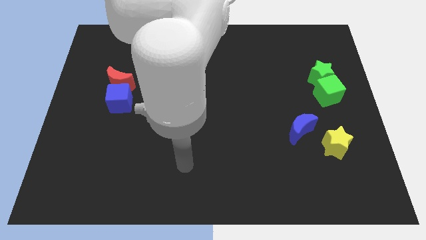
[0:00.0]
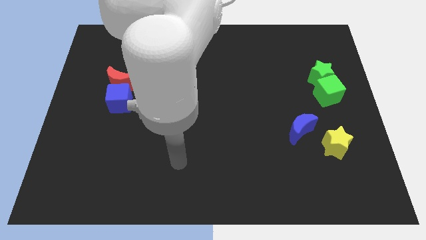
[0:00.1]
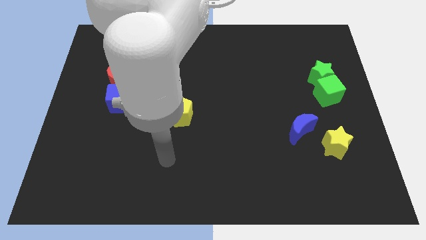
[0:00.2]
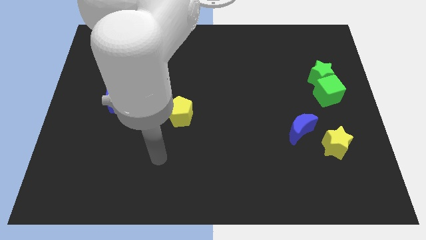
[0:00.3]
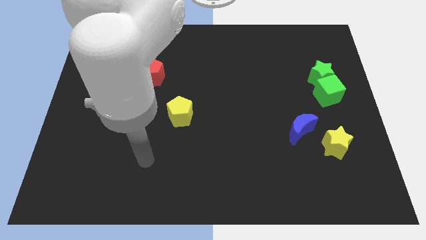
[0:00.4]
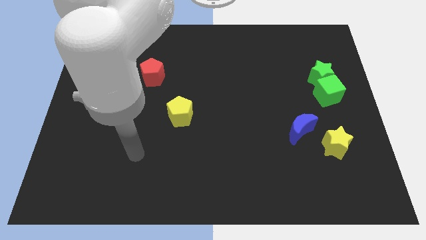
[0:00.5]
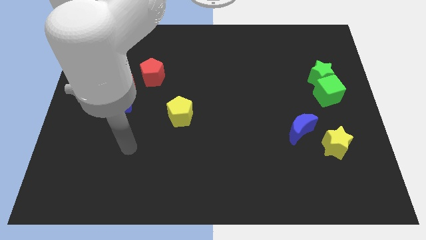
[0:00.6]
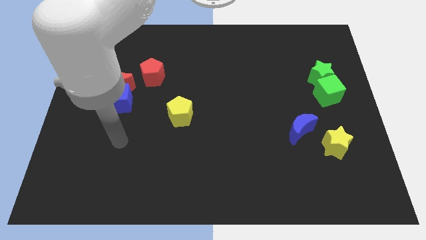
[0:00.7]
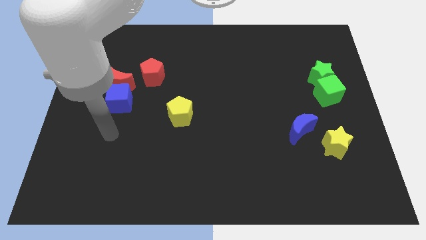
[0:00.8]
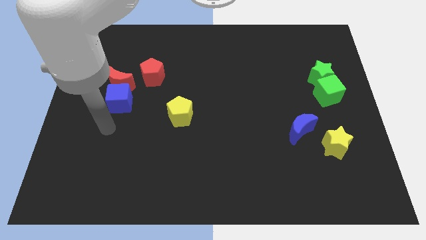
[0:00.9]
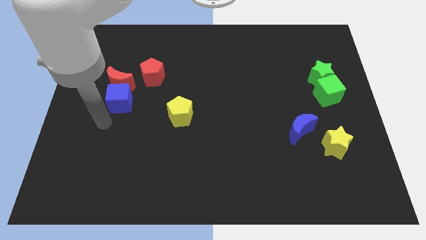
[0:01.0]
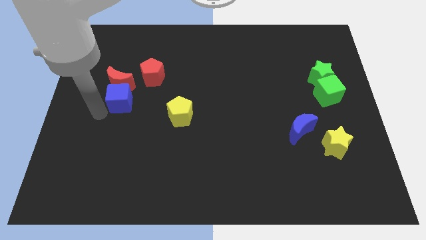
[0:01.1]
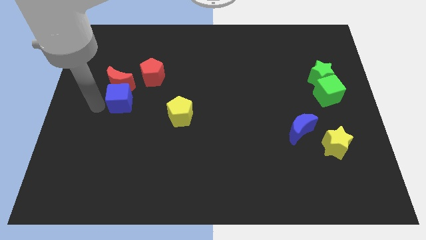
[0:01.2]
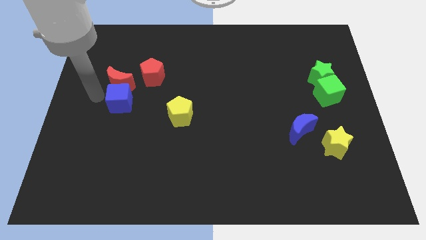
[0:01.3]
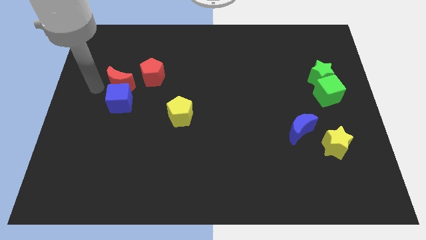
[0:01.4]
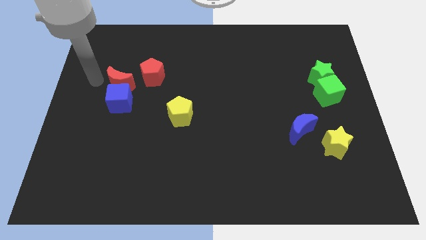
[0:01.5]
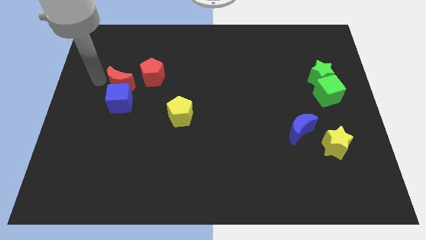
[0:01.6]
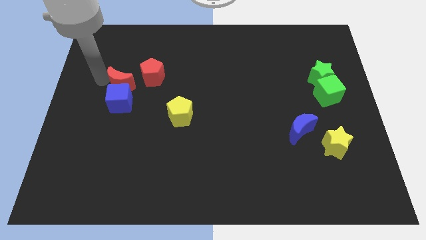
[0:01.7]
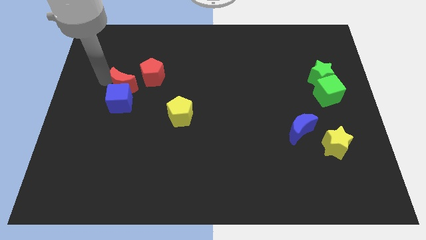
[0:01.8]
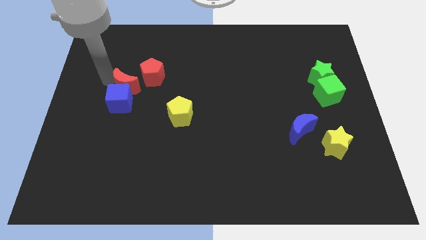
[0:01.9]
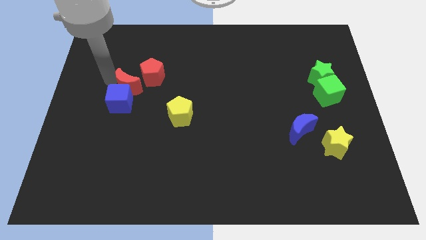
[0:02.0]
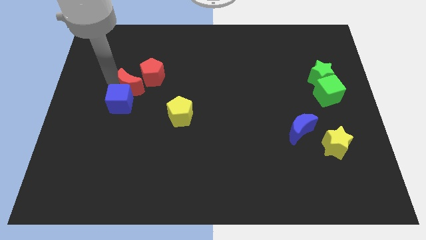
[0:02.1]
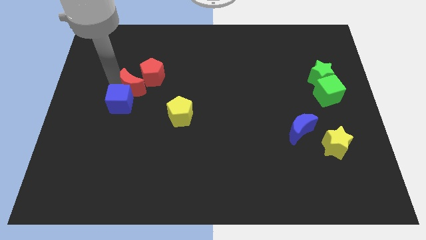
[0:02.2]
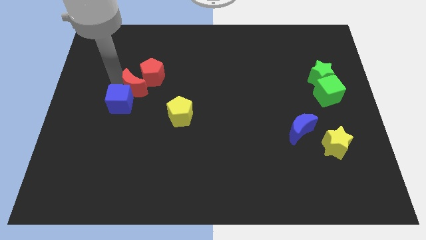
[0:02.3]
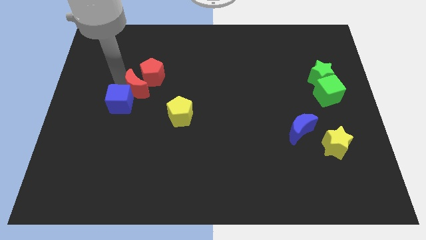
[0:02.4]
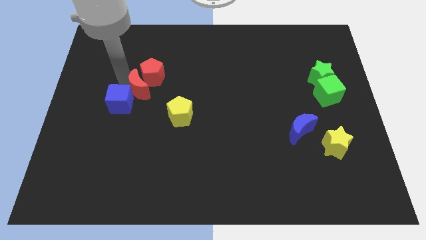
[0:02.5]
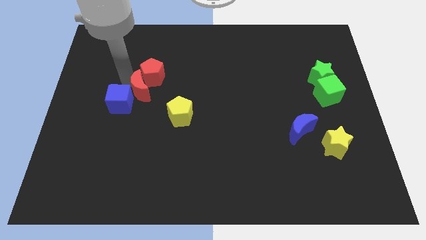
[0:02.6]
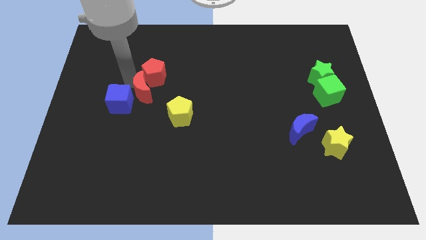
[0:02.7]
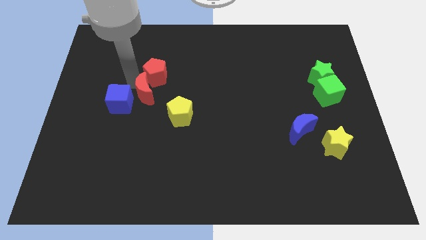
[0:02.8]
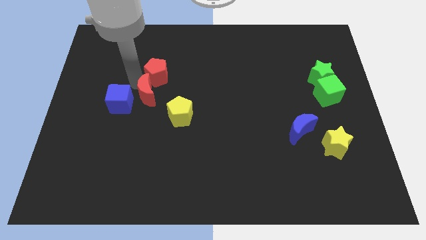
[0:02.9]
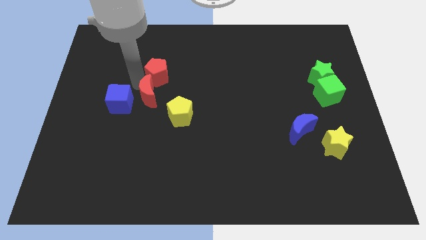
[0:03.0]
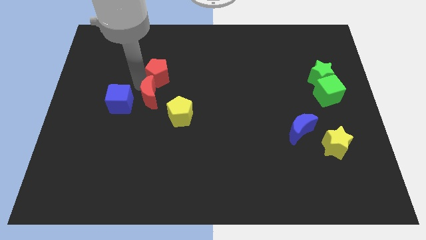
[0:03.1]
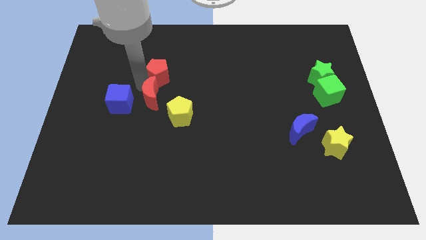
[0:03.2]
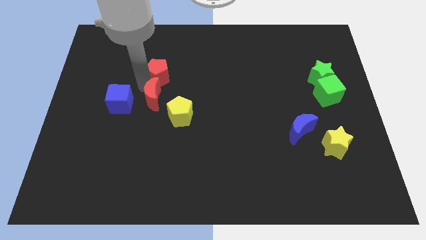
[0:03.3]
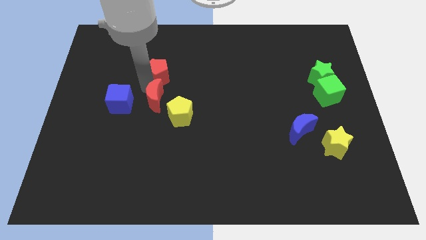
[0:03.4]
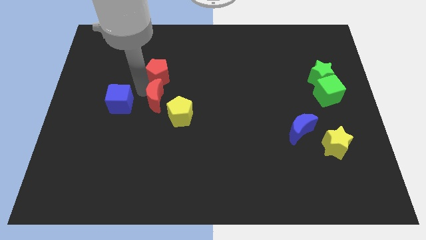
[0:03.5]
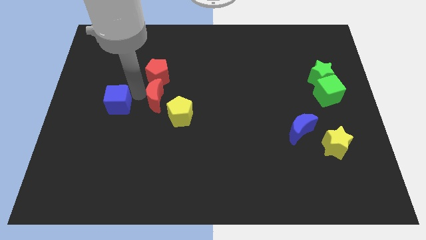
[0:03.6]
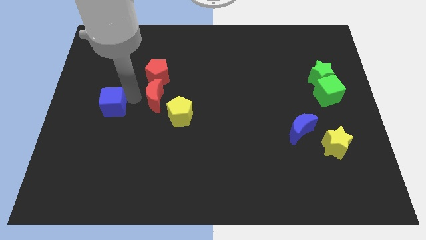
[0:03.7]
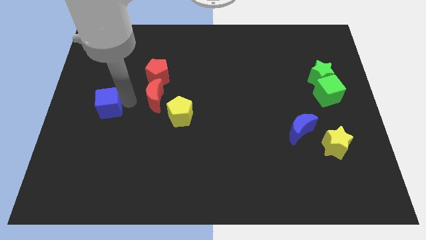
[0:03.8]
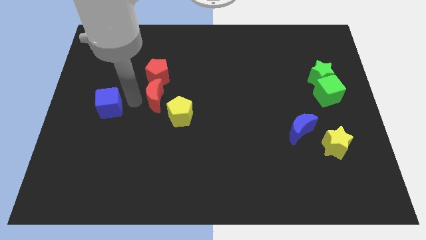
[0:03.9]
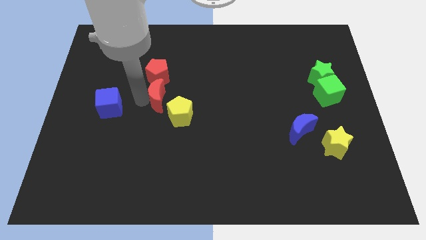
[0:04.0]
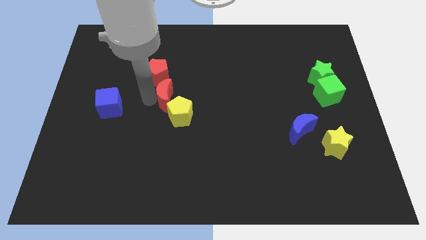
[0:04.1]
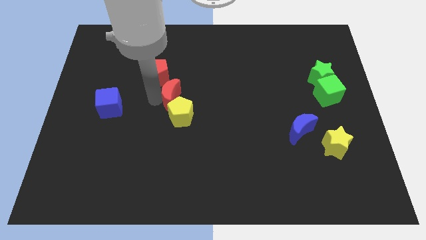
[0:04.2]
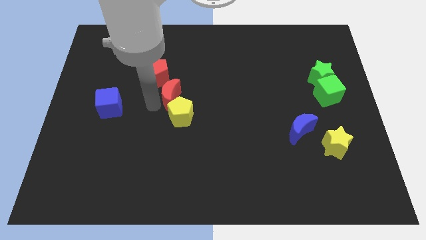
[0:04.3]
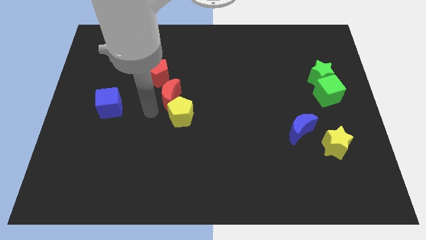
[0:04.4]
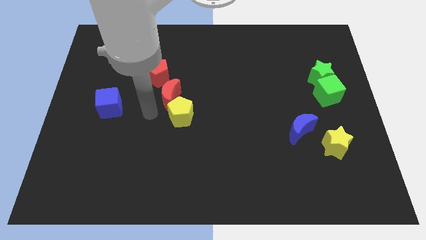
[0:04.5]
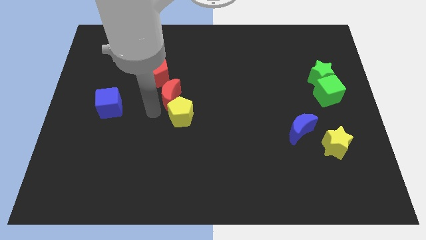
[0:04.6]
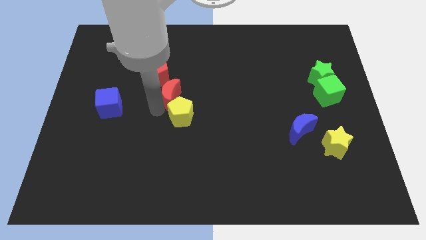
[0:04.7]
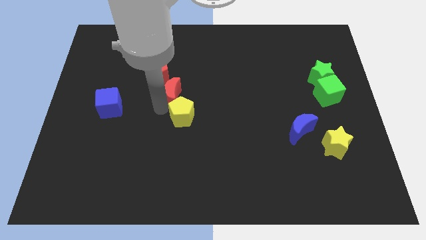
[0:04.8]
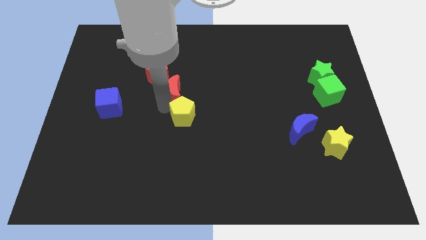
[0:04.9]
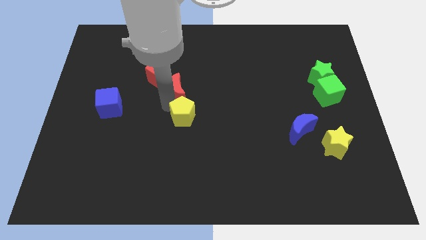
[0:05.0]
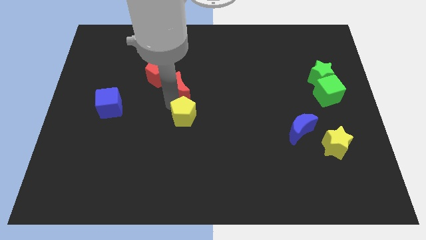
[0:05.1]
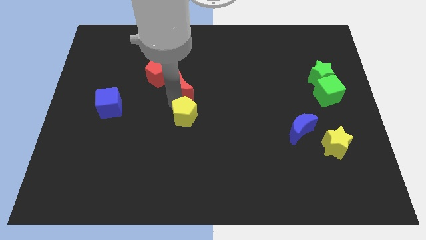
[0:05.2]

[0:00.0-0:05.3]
put the red moon right of the red pentagon

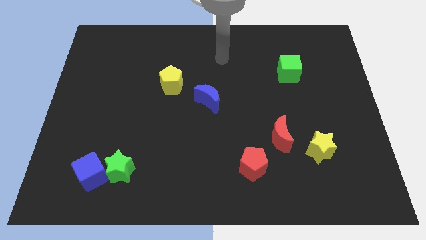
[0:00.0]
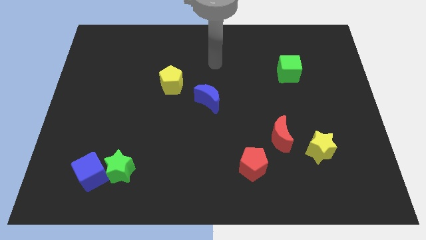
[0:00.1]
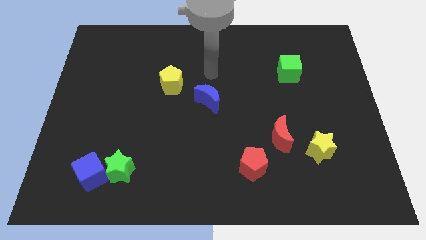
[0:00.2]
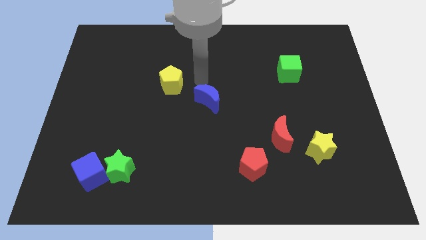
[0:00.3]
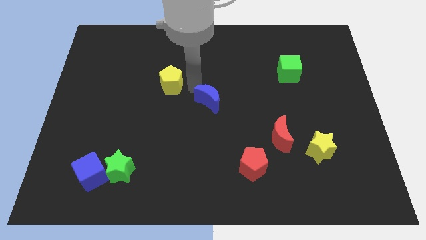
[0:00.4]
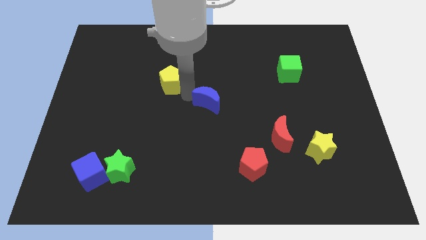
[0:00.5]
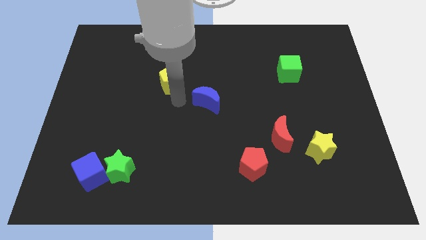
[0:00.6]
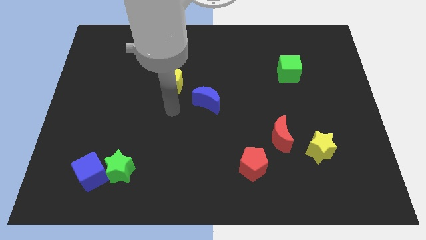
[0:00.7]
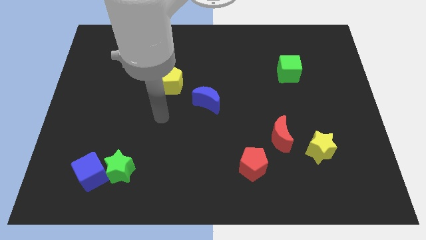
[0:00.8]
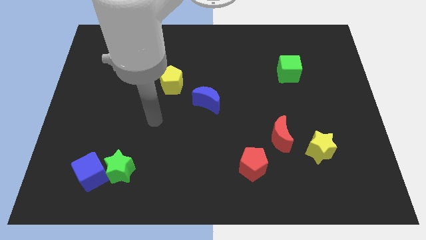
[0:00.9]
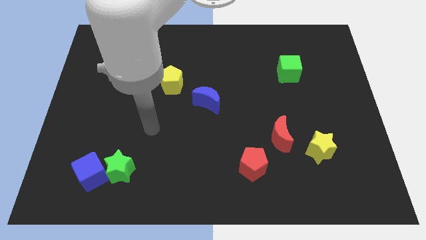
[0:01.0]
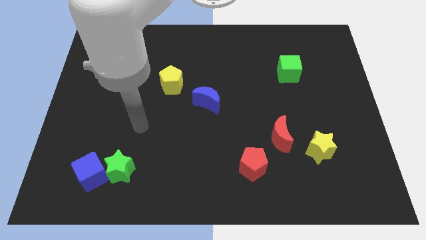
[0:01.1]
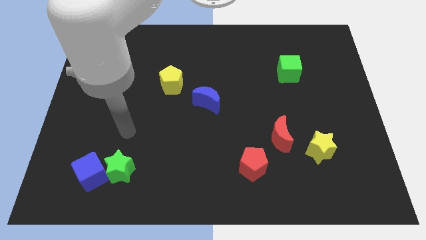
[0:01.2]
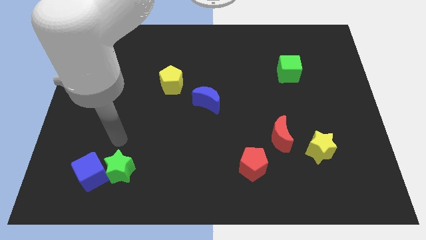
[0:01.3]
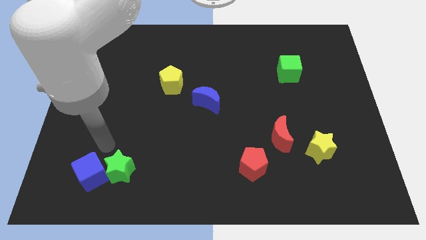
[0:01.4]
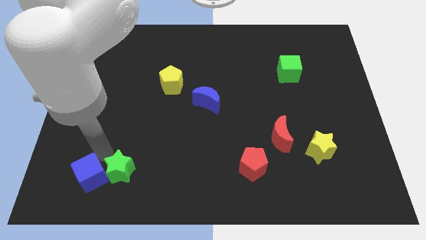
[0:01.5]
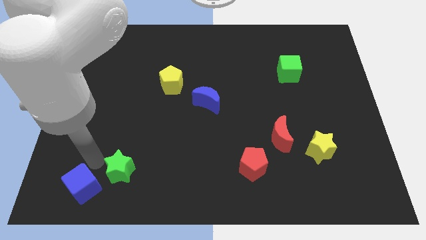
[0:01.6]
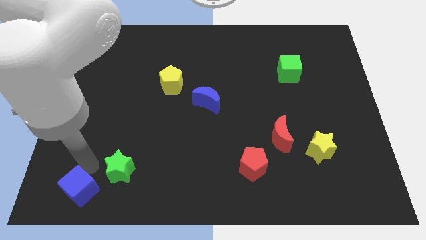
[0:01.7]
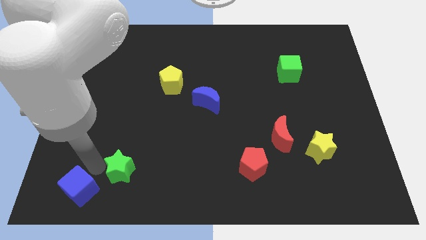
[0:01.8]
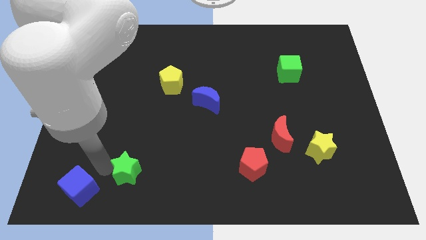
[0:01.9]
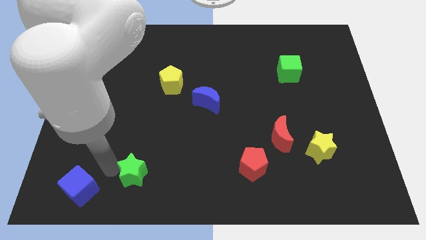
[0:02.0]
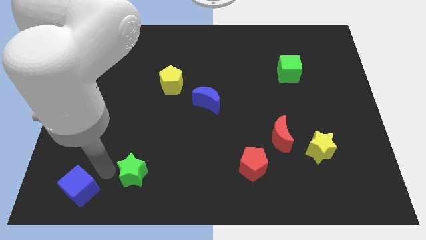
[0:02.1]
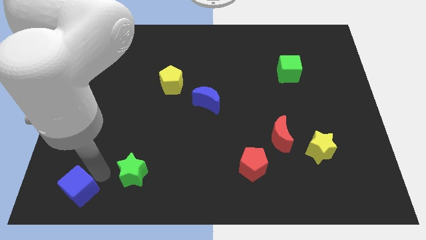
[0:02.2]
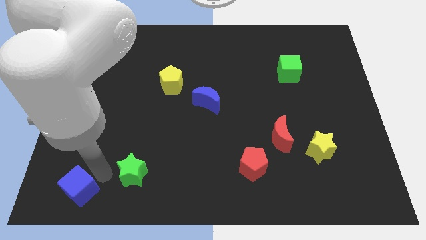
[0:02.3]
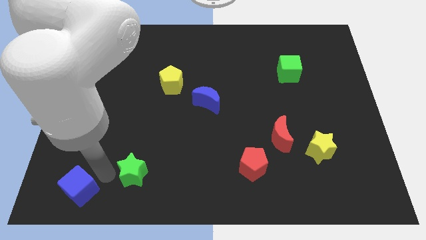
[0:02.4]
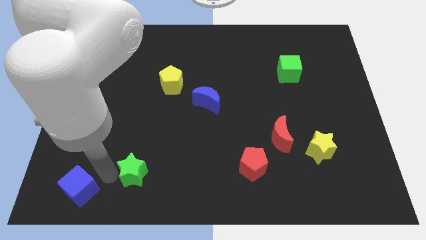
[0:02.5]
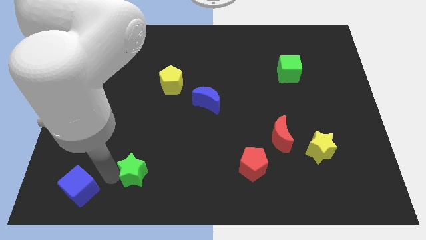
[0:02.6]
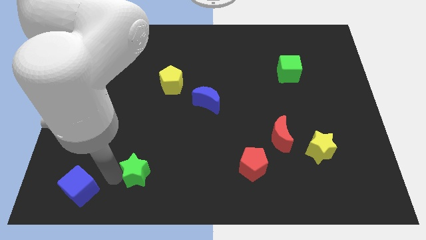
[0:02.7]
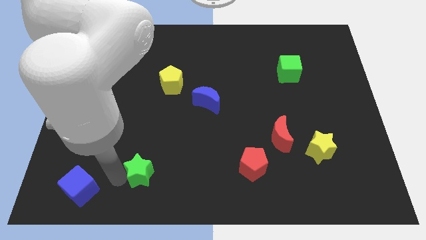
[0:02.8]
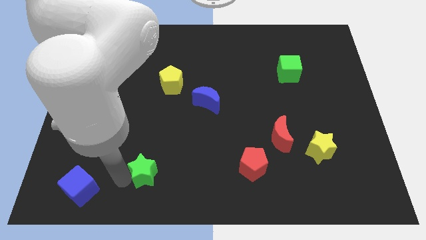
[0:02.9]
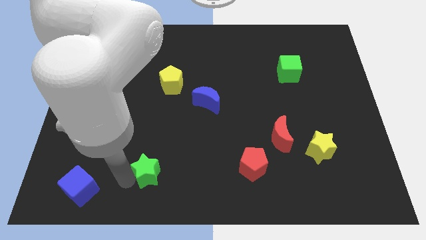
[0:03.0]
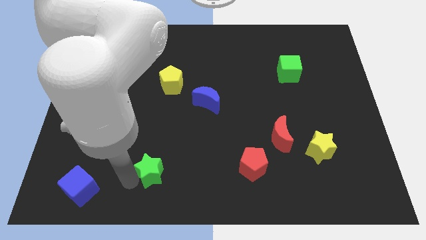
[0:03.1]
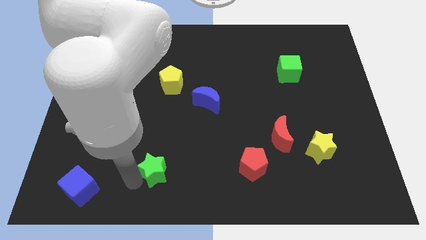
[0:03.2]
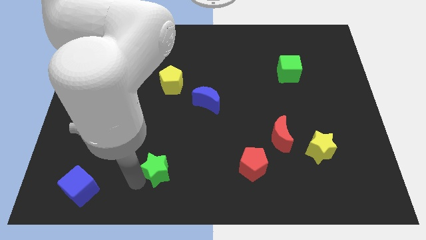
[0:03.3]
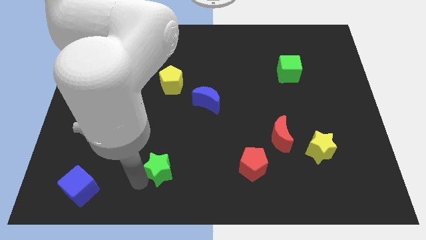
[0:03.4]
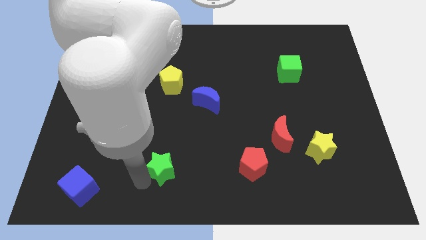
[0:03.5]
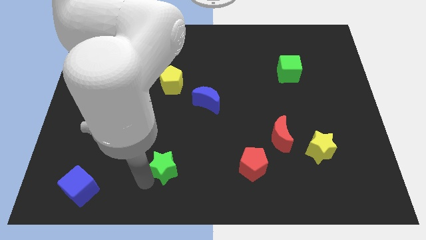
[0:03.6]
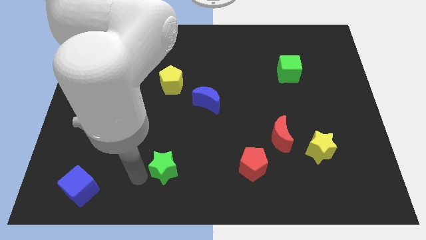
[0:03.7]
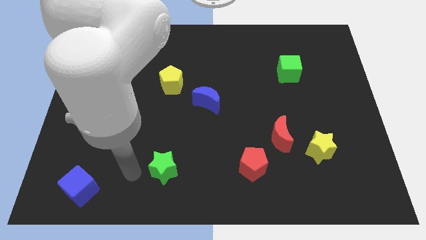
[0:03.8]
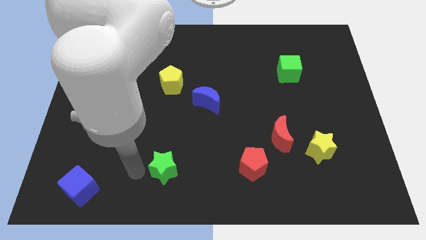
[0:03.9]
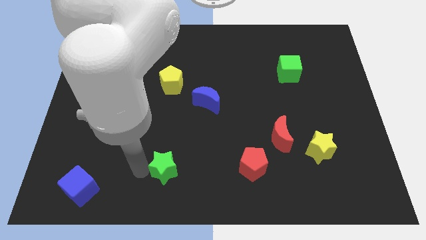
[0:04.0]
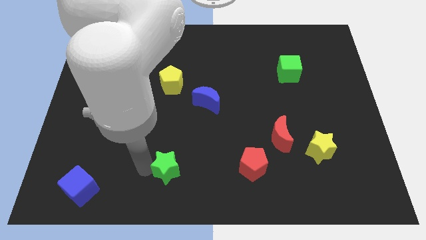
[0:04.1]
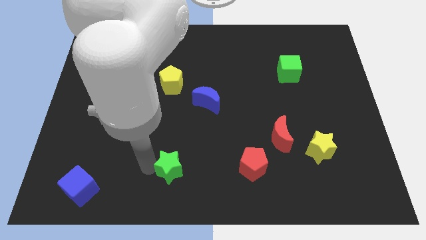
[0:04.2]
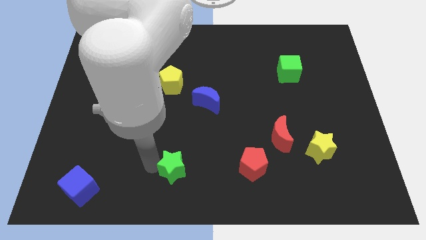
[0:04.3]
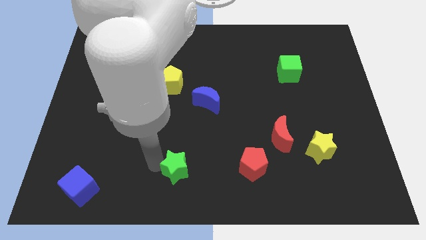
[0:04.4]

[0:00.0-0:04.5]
move the green star just left of the red pentagon
